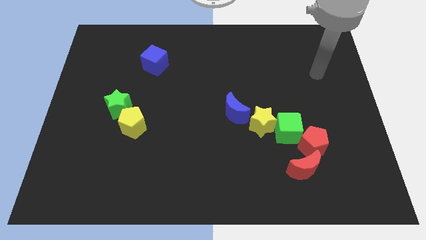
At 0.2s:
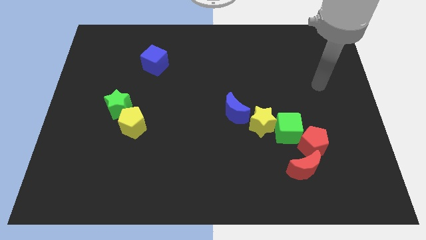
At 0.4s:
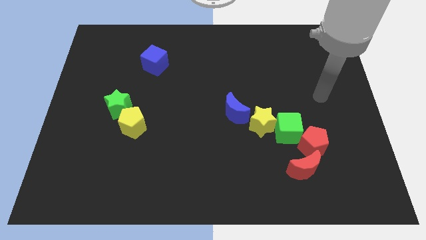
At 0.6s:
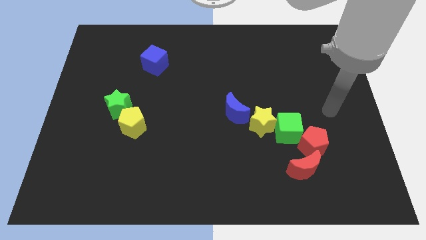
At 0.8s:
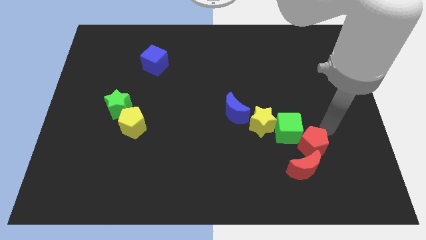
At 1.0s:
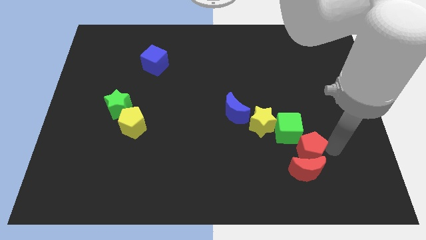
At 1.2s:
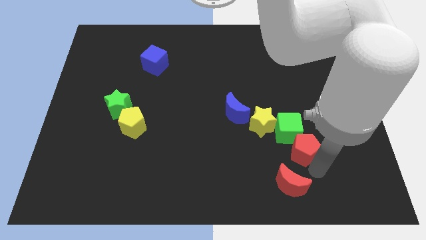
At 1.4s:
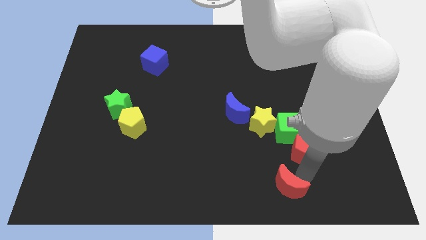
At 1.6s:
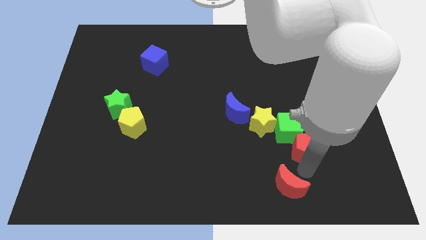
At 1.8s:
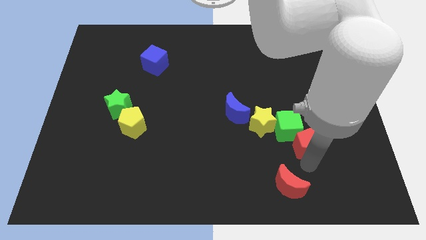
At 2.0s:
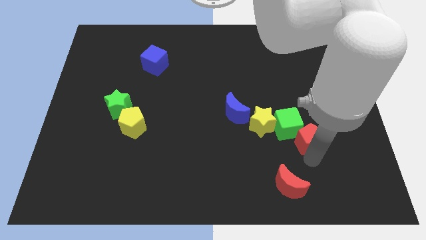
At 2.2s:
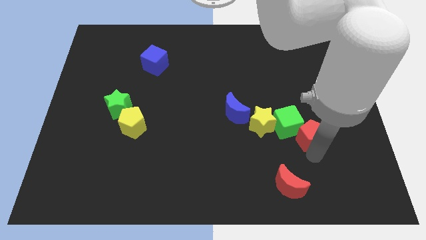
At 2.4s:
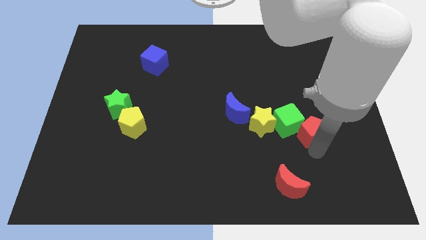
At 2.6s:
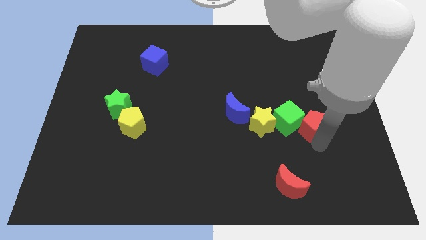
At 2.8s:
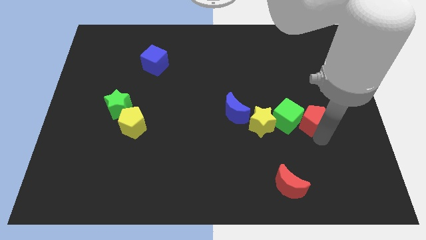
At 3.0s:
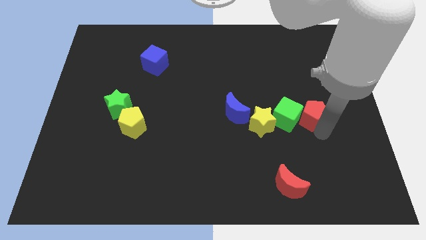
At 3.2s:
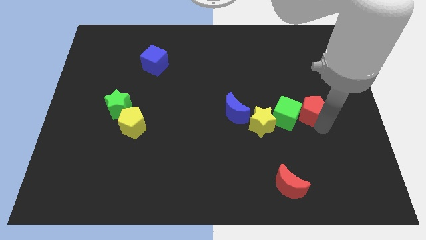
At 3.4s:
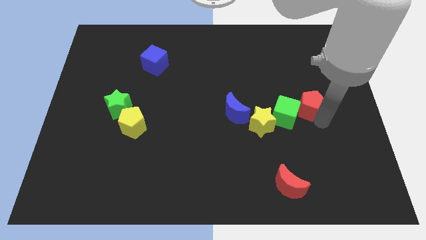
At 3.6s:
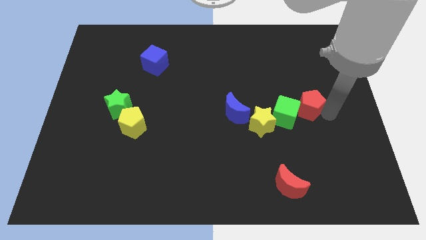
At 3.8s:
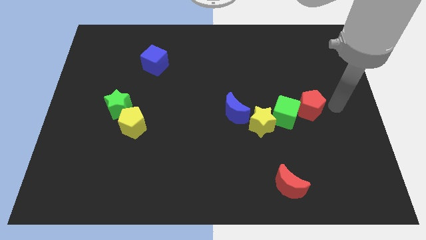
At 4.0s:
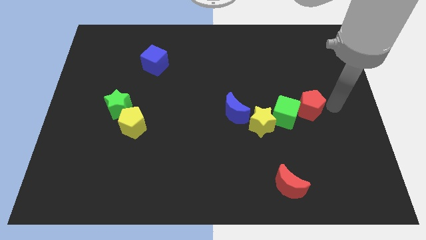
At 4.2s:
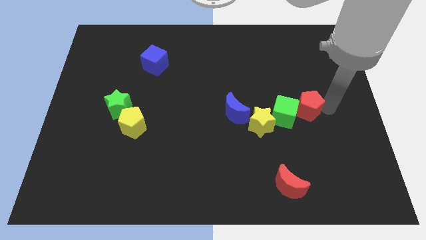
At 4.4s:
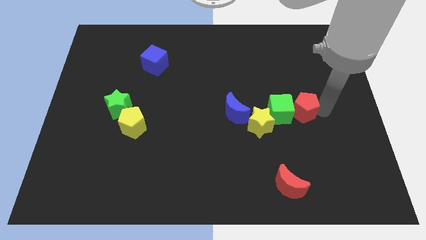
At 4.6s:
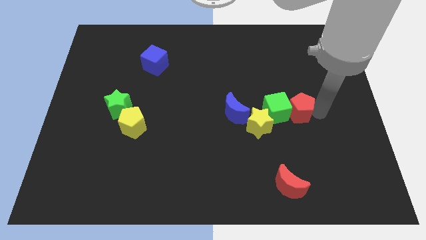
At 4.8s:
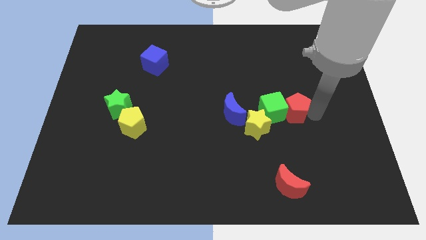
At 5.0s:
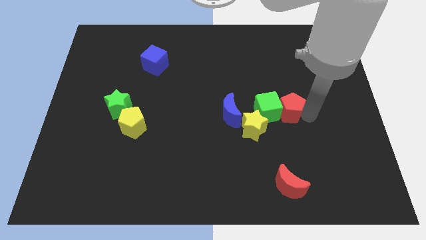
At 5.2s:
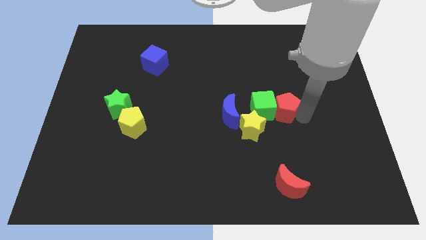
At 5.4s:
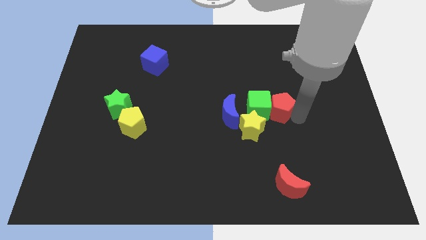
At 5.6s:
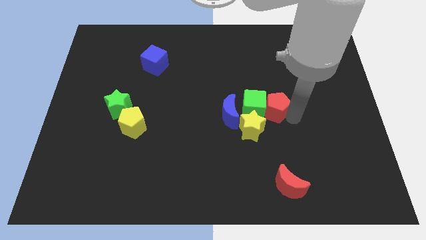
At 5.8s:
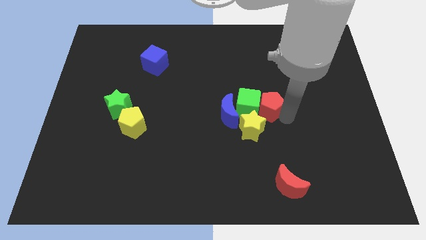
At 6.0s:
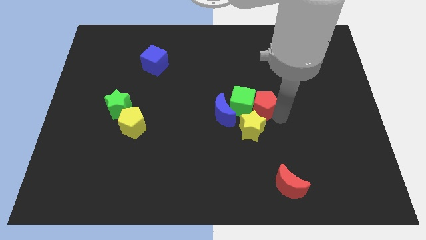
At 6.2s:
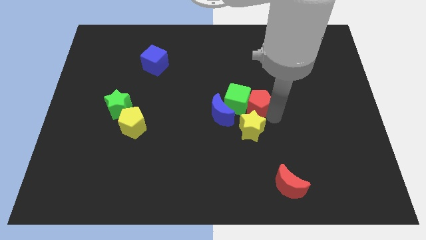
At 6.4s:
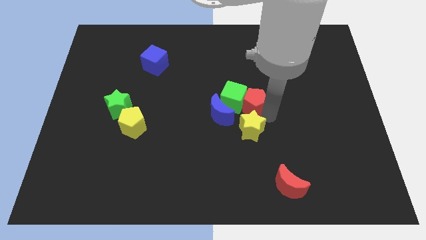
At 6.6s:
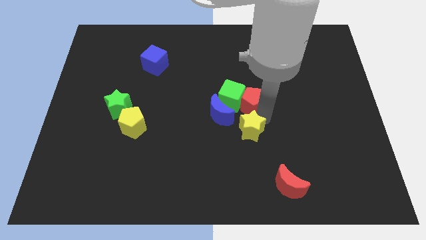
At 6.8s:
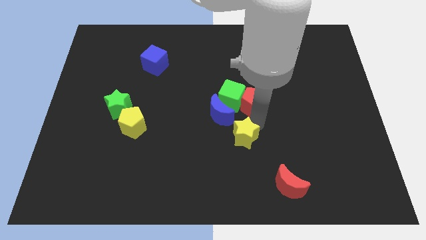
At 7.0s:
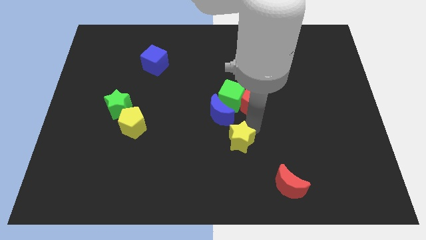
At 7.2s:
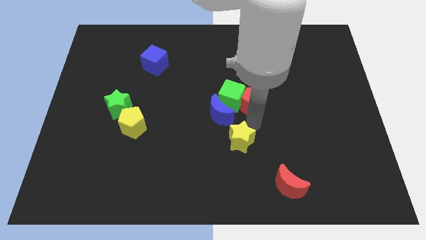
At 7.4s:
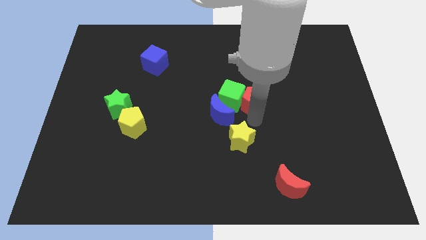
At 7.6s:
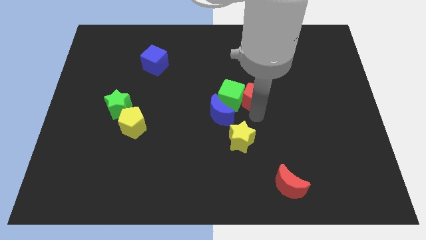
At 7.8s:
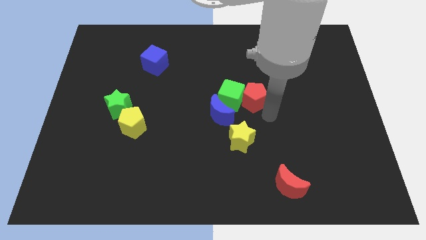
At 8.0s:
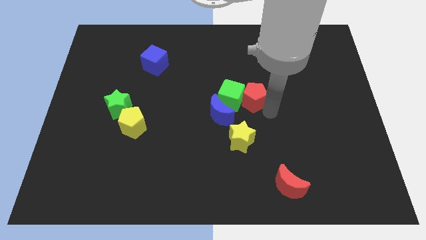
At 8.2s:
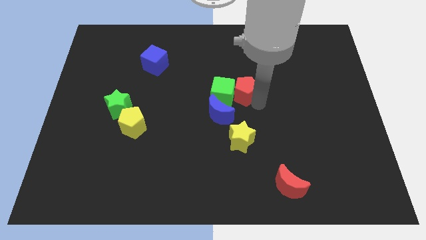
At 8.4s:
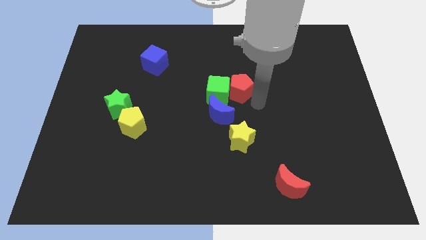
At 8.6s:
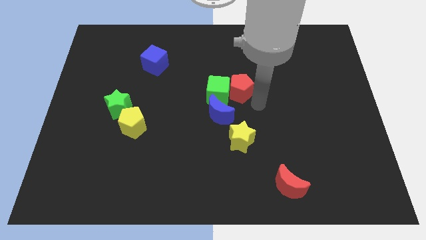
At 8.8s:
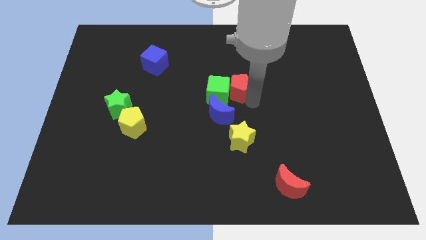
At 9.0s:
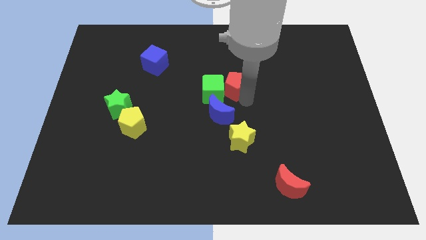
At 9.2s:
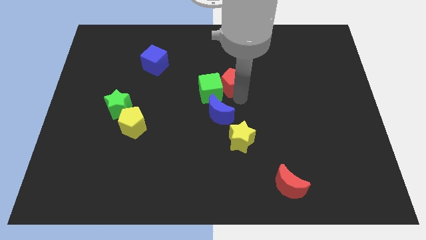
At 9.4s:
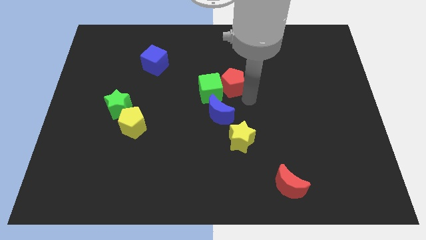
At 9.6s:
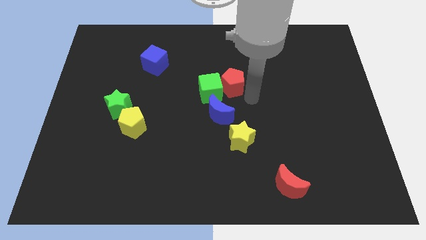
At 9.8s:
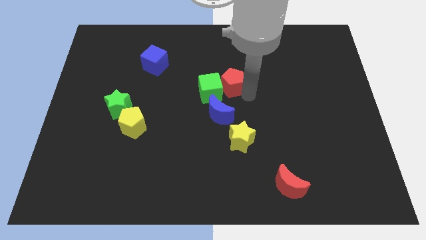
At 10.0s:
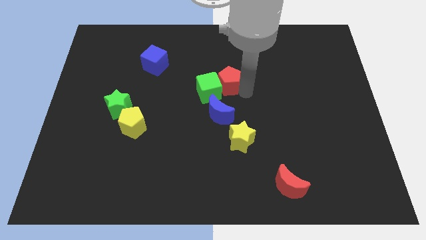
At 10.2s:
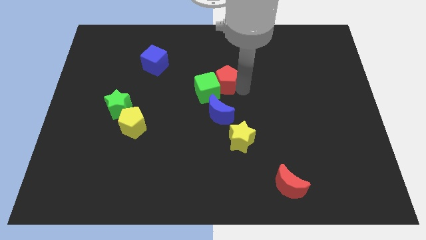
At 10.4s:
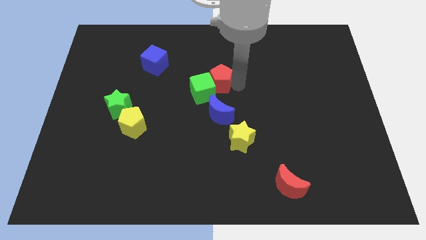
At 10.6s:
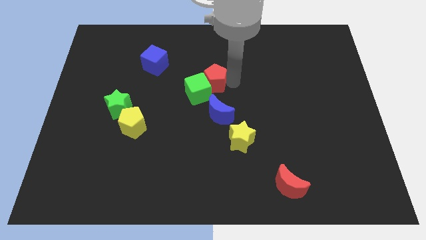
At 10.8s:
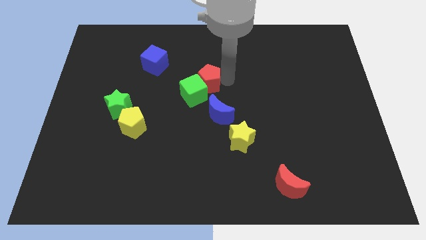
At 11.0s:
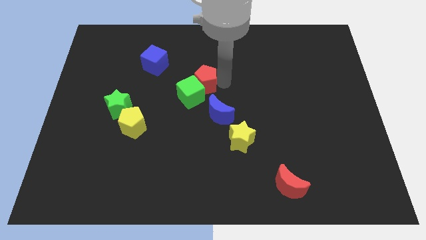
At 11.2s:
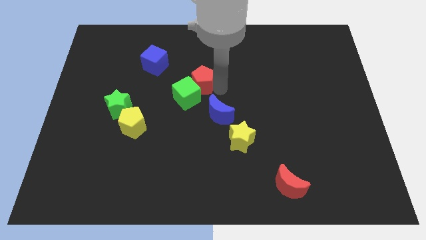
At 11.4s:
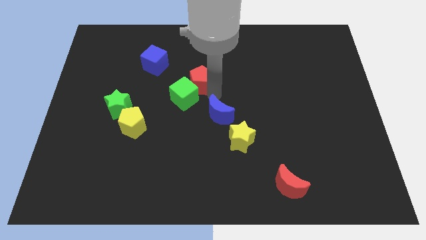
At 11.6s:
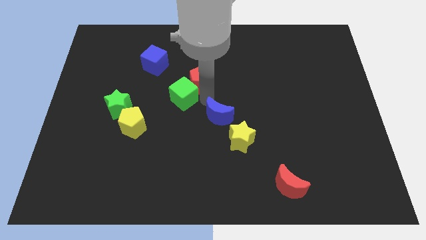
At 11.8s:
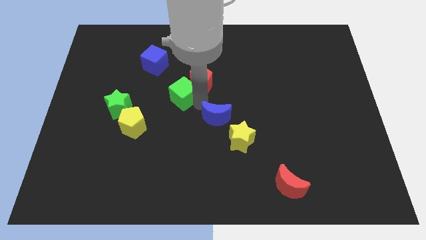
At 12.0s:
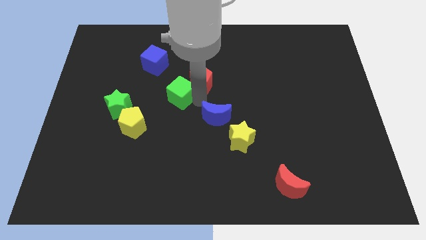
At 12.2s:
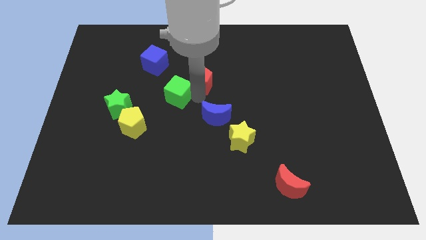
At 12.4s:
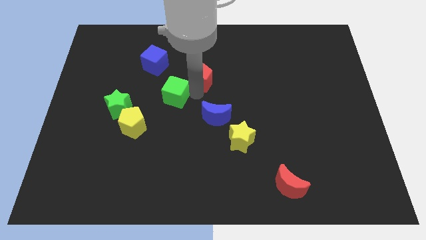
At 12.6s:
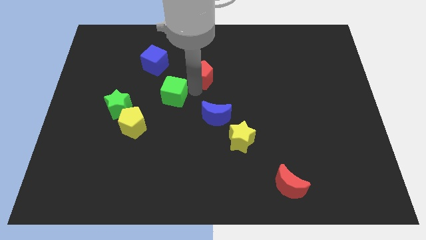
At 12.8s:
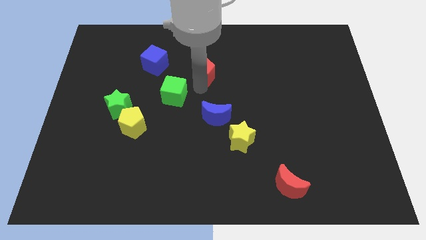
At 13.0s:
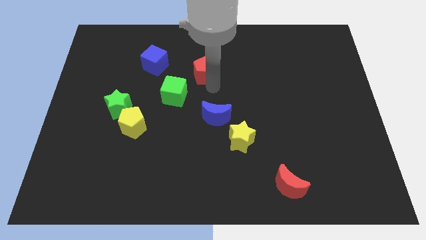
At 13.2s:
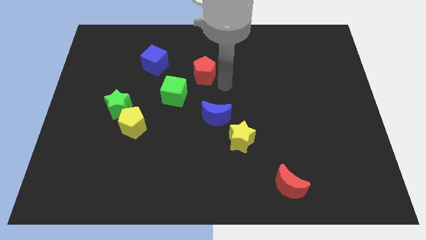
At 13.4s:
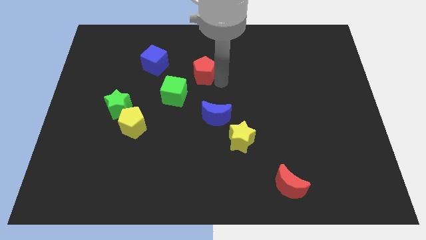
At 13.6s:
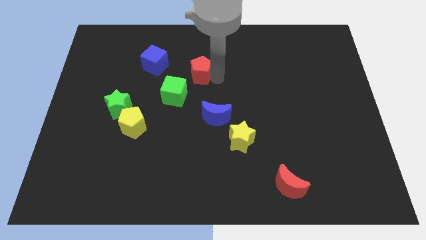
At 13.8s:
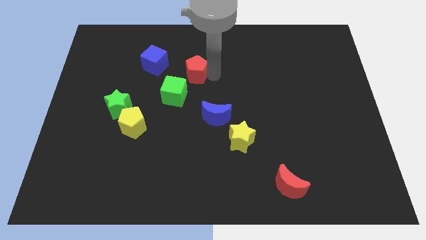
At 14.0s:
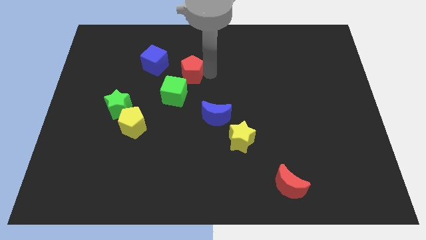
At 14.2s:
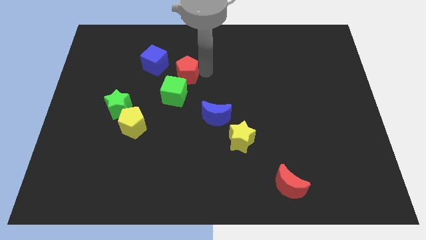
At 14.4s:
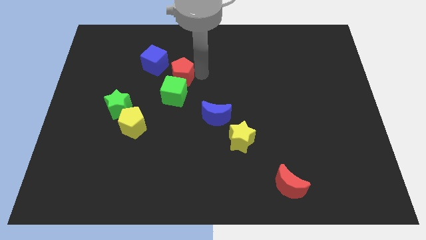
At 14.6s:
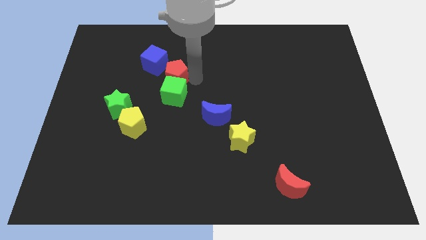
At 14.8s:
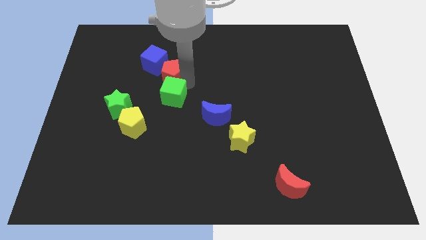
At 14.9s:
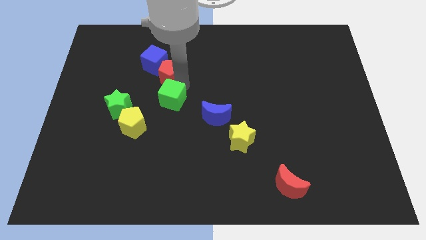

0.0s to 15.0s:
slide the red pentagon close to the blue cube

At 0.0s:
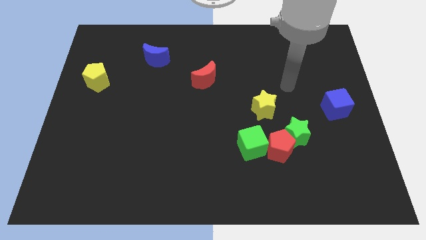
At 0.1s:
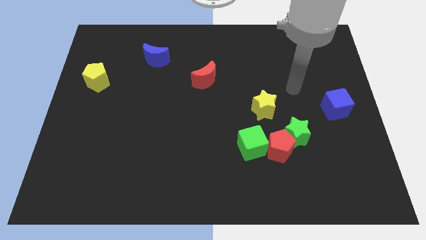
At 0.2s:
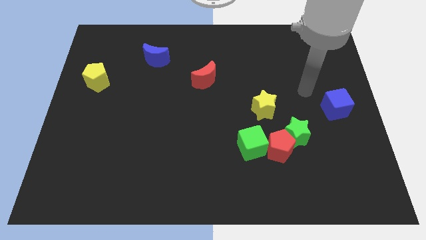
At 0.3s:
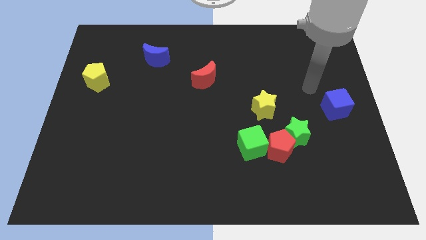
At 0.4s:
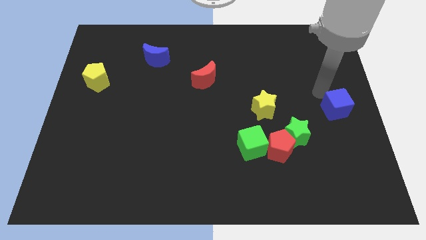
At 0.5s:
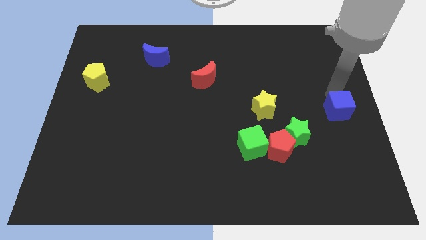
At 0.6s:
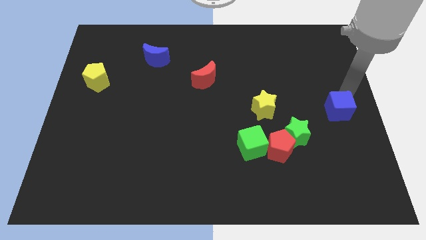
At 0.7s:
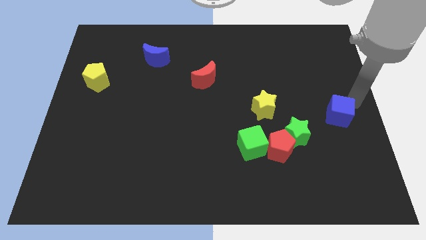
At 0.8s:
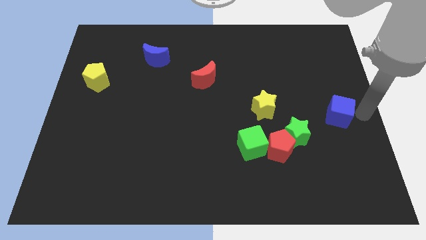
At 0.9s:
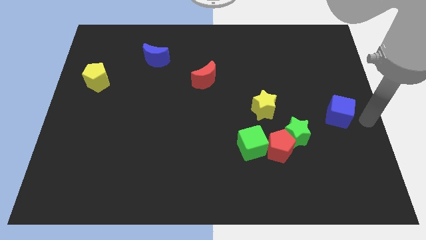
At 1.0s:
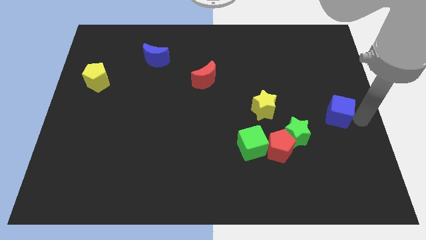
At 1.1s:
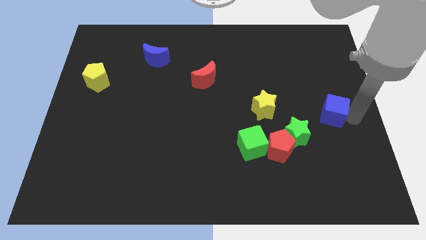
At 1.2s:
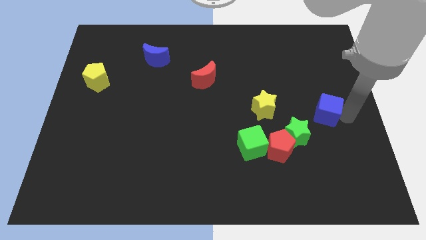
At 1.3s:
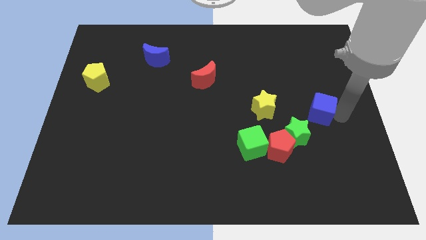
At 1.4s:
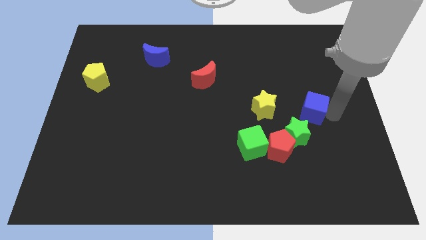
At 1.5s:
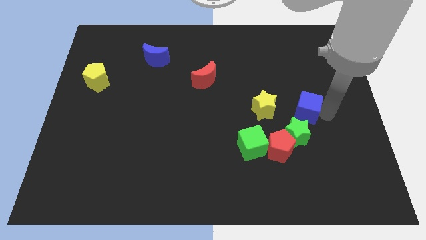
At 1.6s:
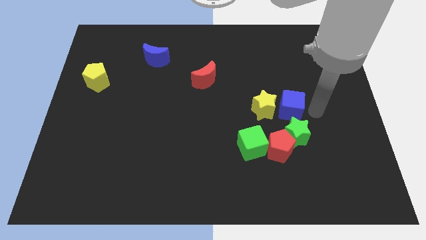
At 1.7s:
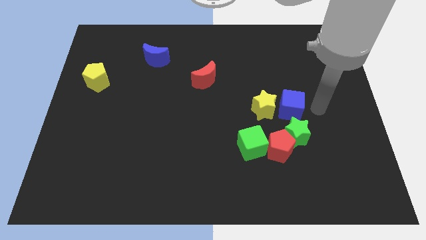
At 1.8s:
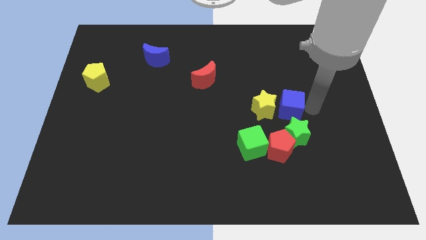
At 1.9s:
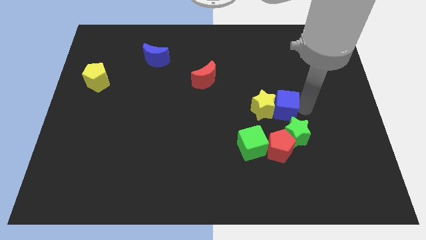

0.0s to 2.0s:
move the blue cube next to the yellow star
